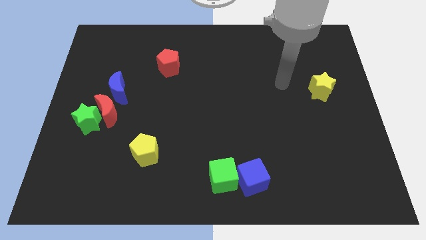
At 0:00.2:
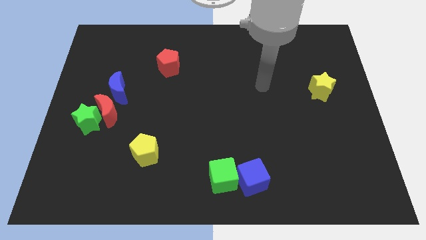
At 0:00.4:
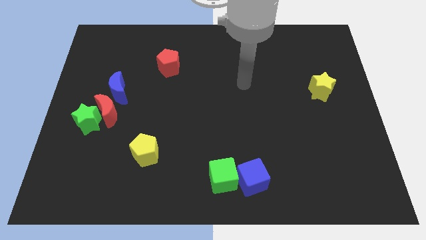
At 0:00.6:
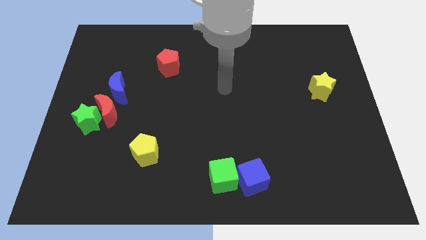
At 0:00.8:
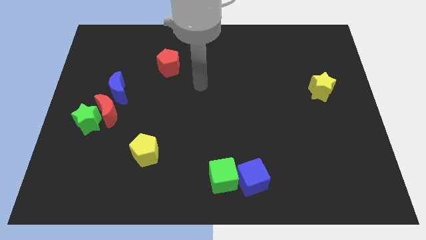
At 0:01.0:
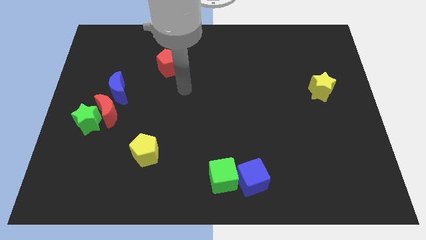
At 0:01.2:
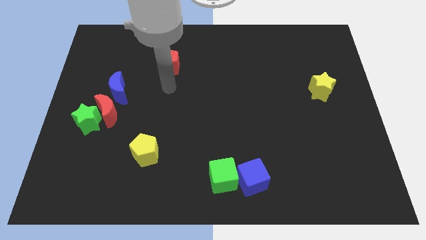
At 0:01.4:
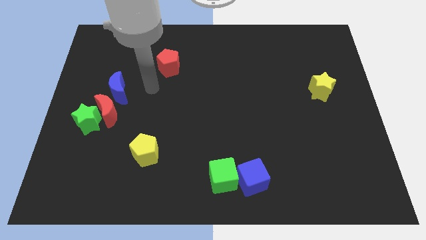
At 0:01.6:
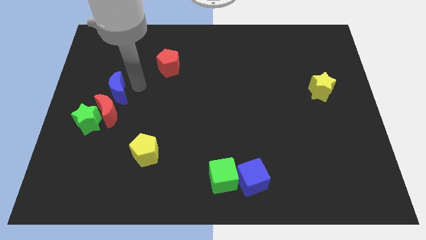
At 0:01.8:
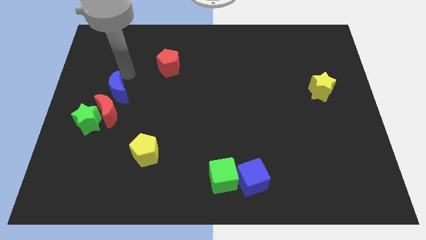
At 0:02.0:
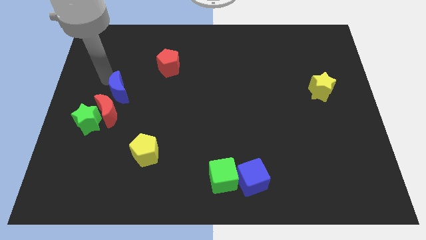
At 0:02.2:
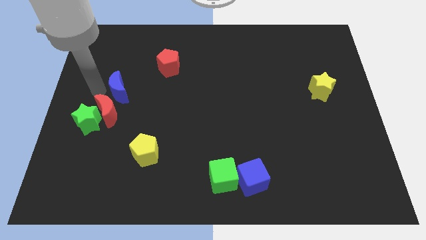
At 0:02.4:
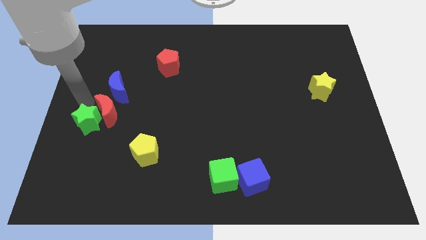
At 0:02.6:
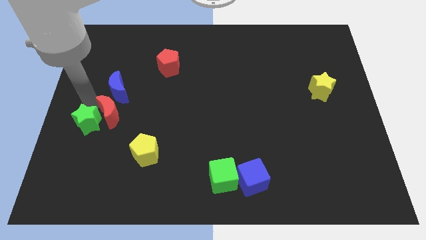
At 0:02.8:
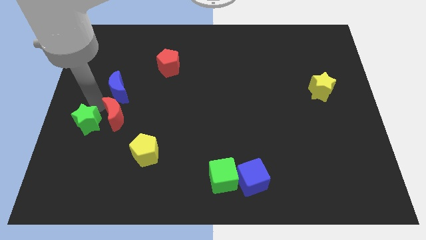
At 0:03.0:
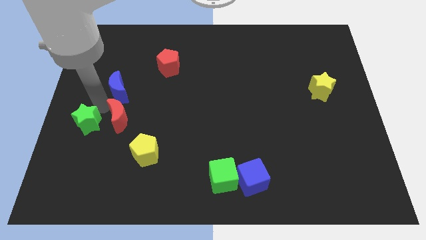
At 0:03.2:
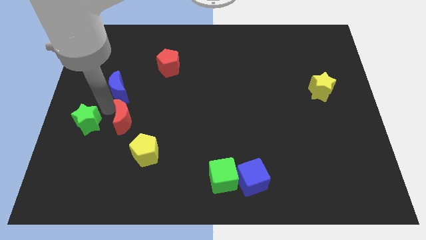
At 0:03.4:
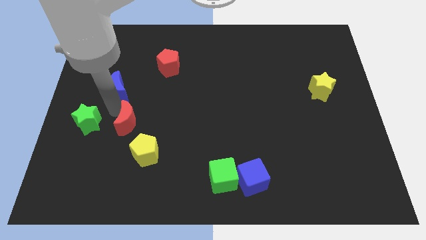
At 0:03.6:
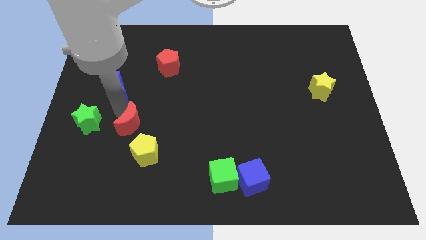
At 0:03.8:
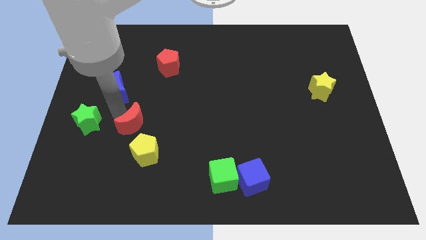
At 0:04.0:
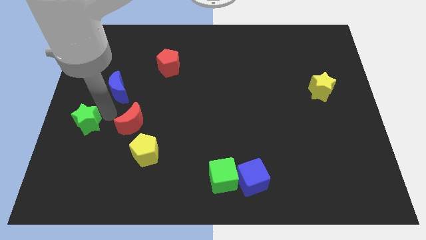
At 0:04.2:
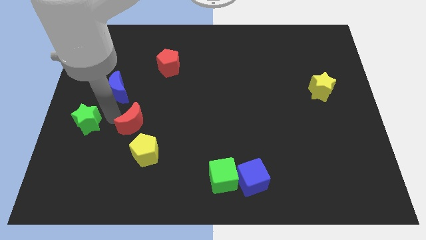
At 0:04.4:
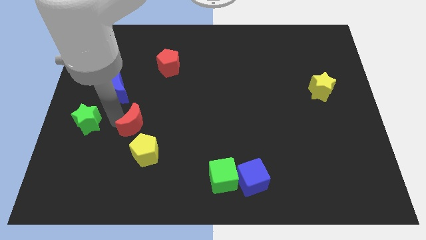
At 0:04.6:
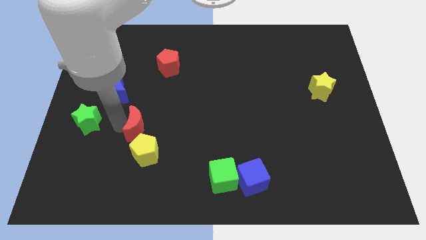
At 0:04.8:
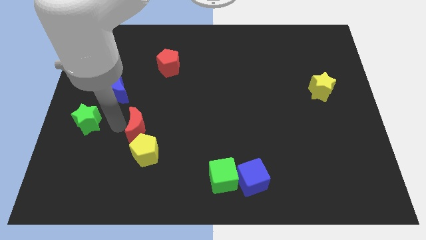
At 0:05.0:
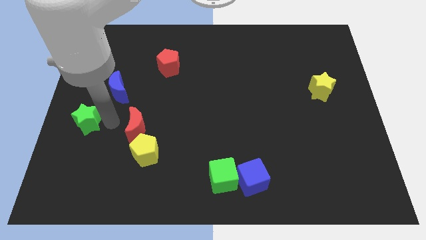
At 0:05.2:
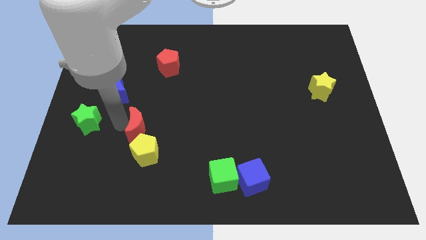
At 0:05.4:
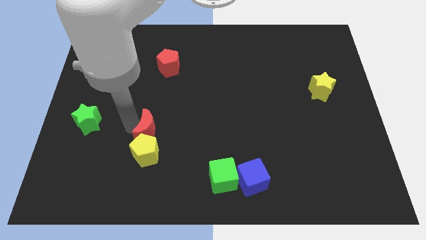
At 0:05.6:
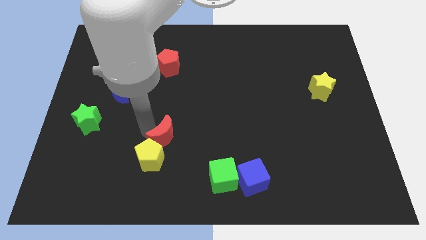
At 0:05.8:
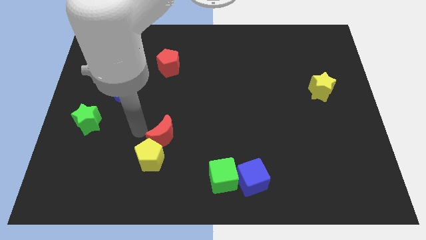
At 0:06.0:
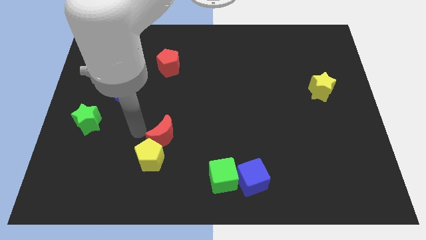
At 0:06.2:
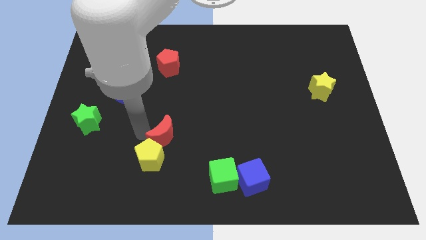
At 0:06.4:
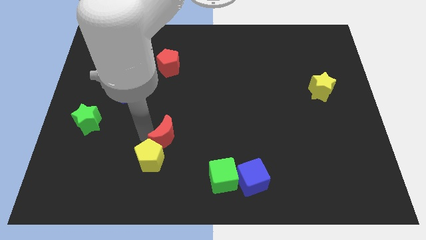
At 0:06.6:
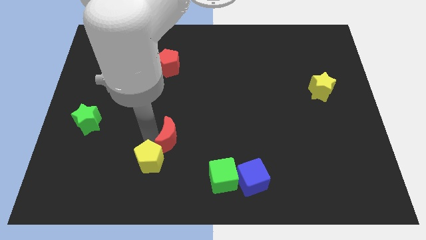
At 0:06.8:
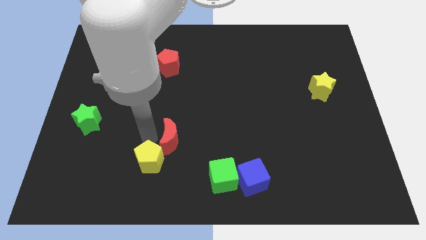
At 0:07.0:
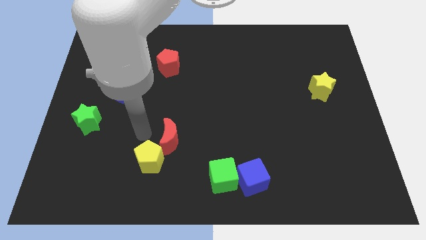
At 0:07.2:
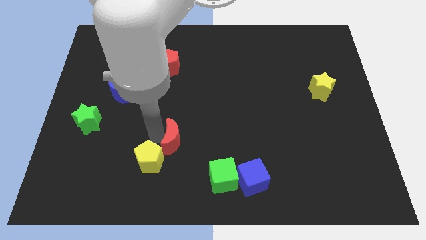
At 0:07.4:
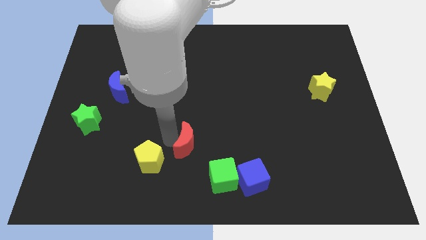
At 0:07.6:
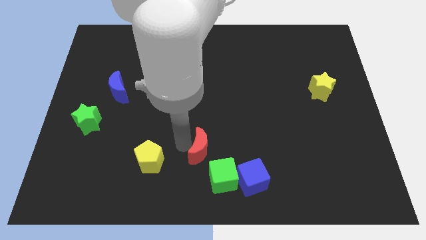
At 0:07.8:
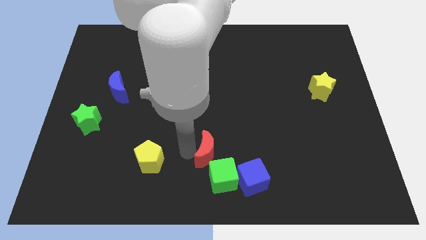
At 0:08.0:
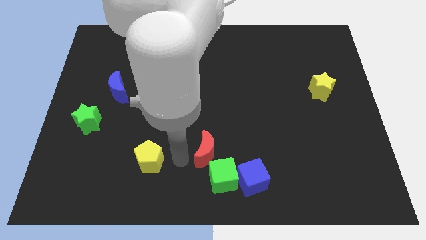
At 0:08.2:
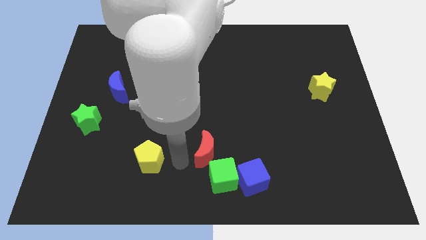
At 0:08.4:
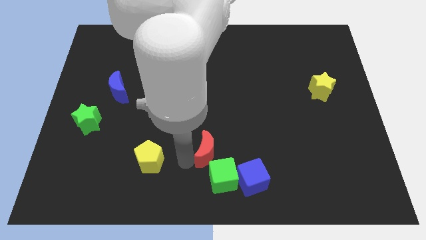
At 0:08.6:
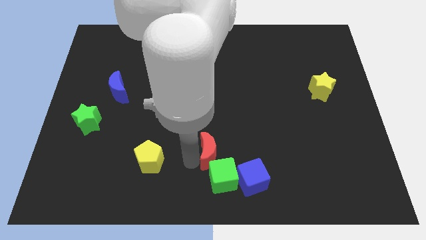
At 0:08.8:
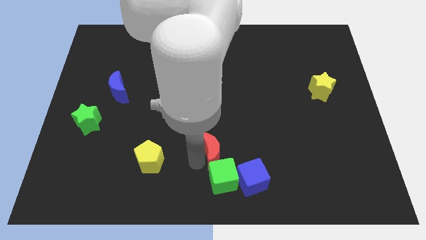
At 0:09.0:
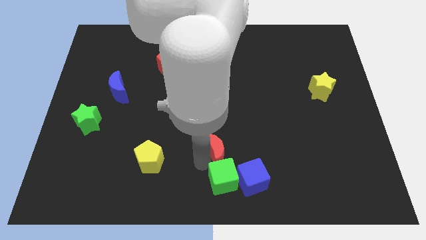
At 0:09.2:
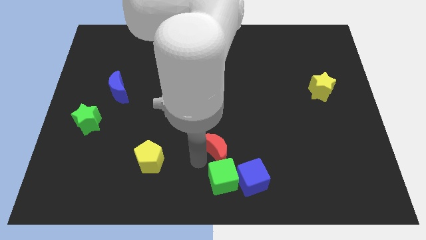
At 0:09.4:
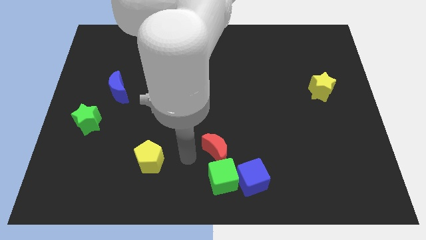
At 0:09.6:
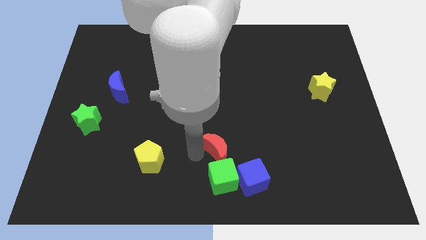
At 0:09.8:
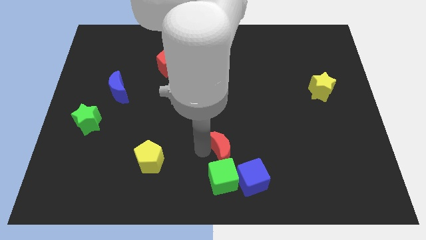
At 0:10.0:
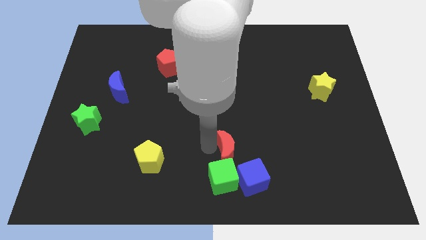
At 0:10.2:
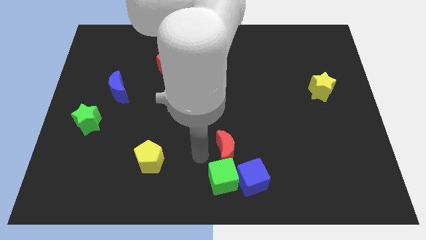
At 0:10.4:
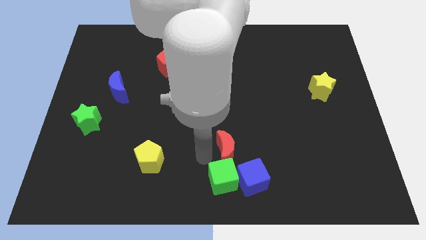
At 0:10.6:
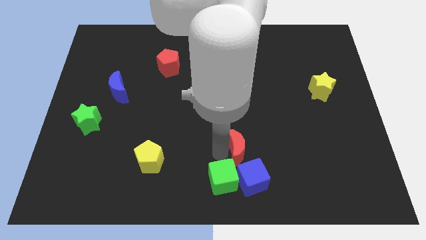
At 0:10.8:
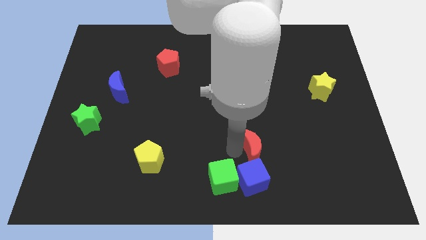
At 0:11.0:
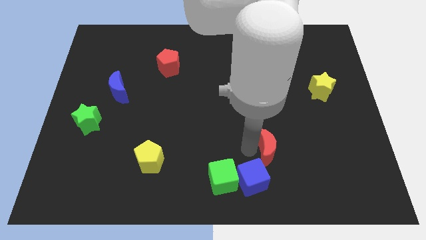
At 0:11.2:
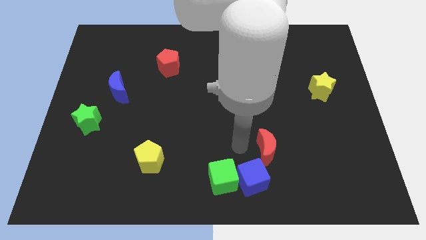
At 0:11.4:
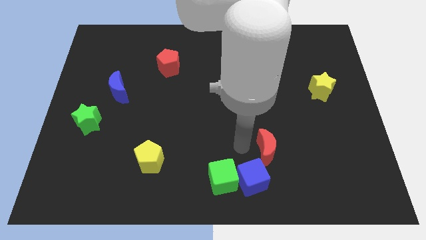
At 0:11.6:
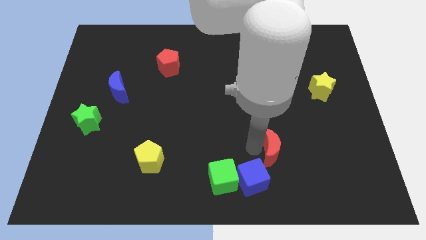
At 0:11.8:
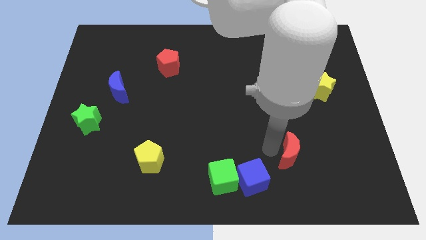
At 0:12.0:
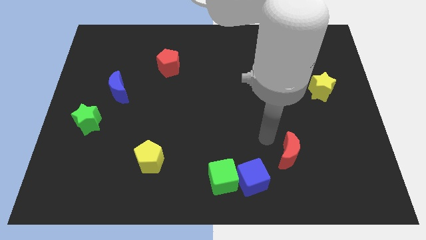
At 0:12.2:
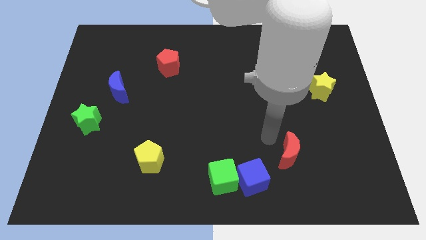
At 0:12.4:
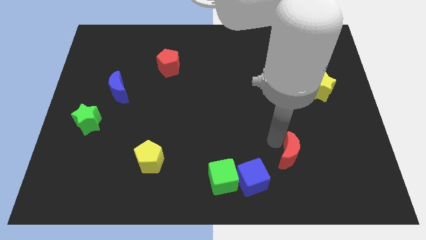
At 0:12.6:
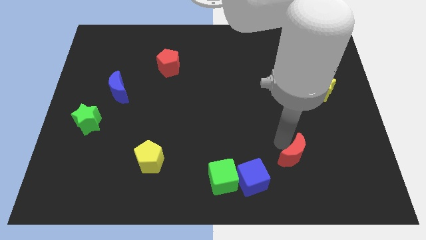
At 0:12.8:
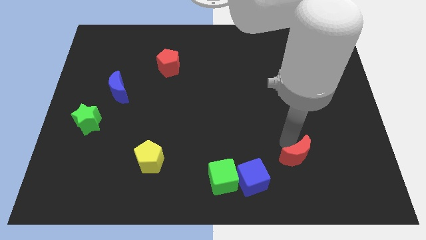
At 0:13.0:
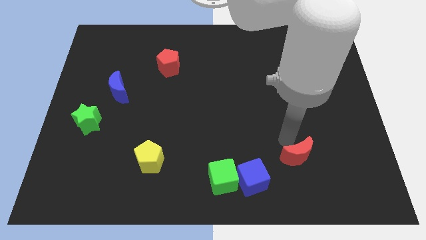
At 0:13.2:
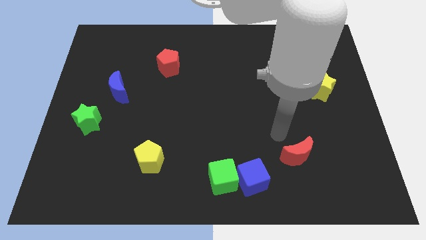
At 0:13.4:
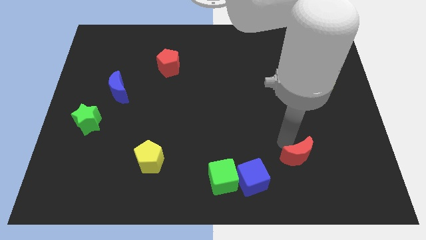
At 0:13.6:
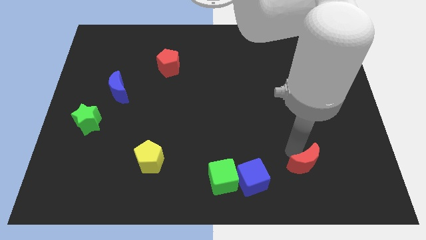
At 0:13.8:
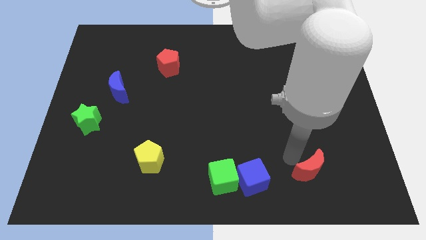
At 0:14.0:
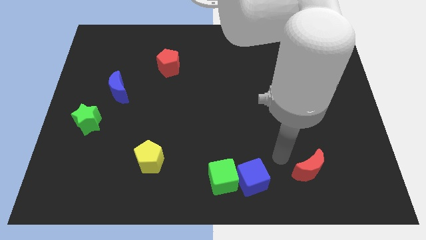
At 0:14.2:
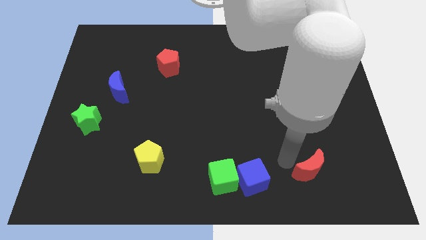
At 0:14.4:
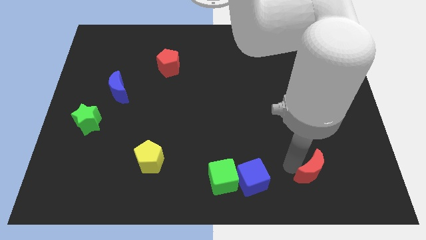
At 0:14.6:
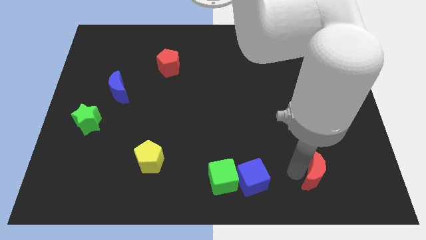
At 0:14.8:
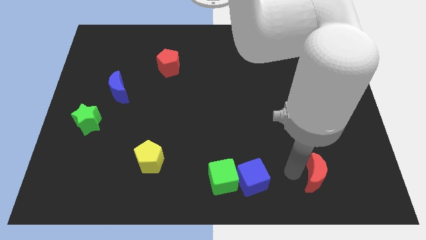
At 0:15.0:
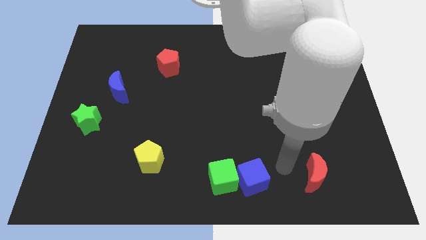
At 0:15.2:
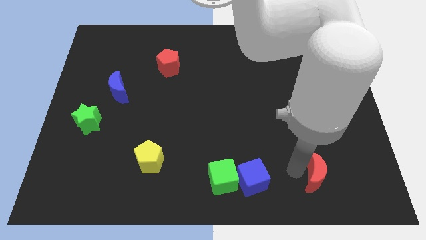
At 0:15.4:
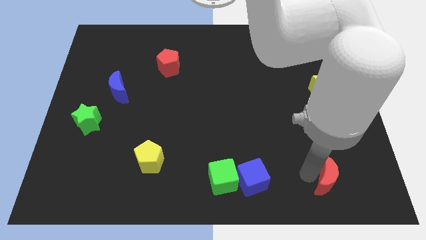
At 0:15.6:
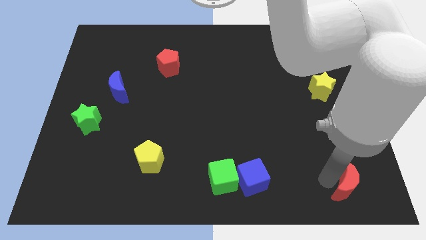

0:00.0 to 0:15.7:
slide the red moon to the bottom right
